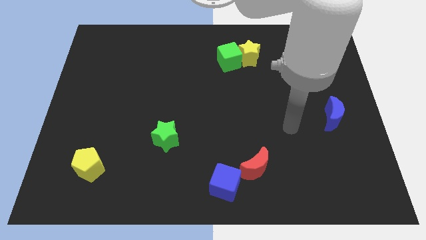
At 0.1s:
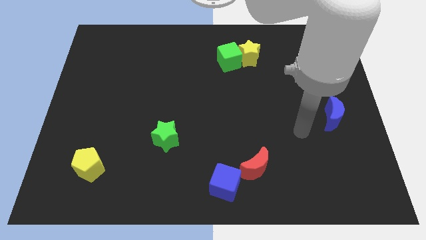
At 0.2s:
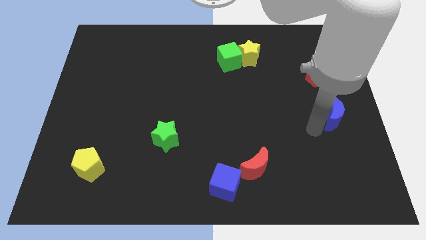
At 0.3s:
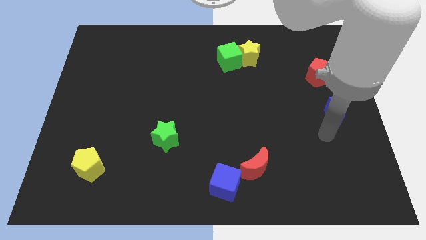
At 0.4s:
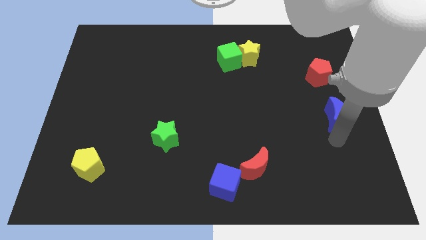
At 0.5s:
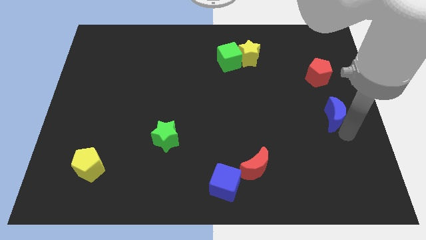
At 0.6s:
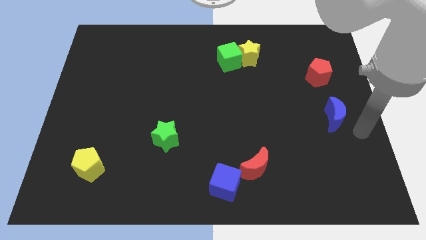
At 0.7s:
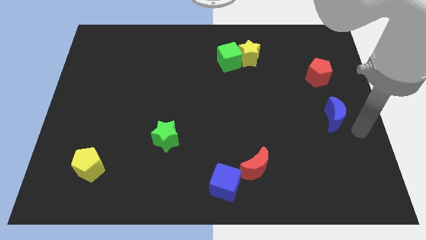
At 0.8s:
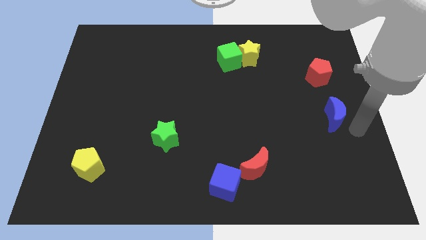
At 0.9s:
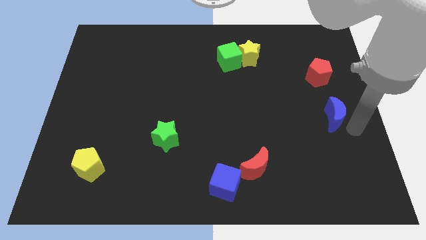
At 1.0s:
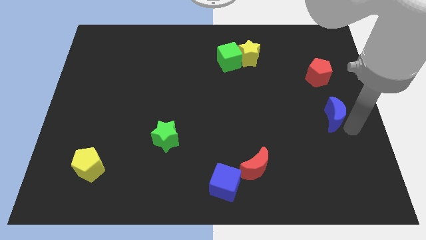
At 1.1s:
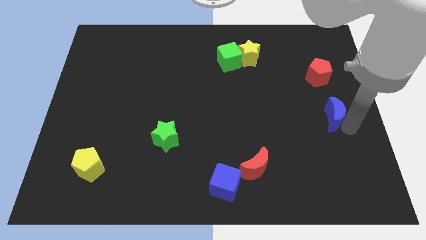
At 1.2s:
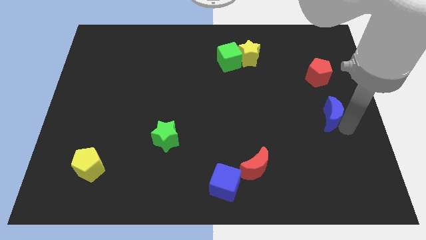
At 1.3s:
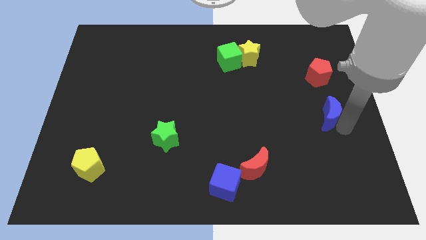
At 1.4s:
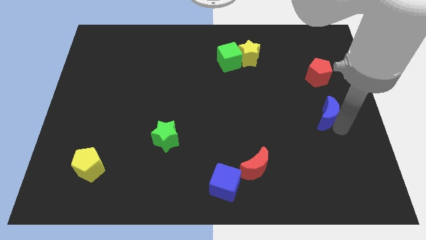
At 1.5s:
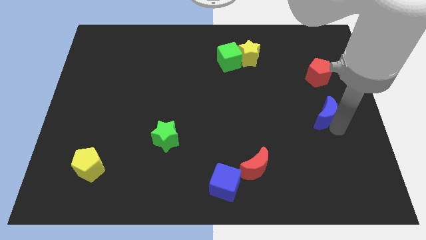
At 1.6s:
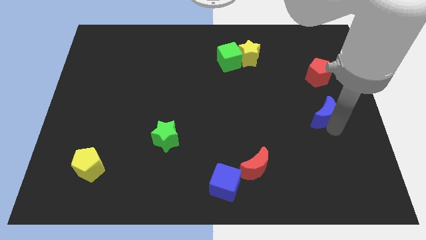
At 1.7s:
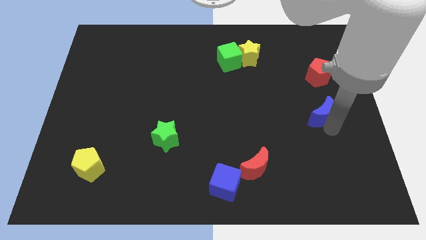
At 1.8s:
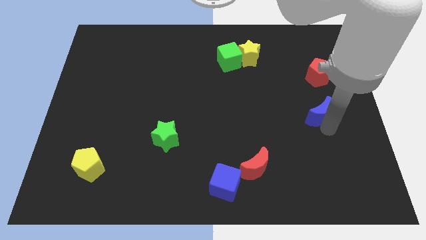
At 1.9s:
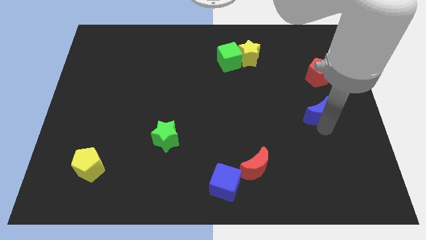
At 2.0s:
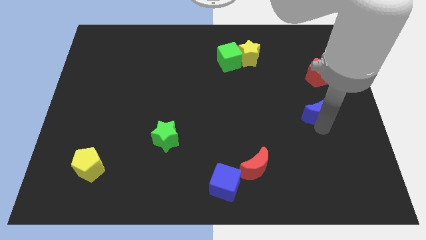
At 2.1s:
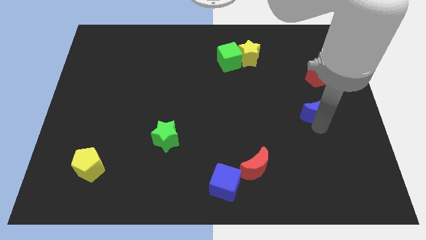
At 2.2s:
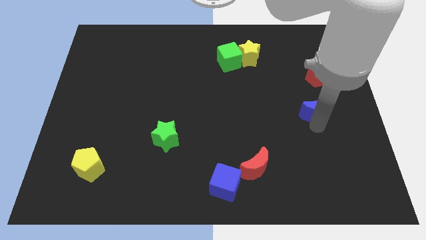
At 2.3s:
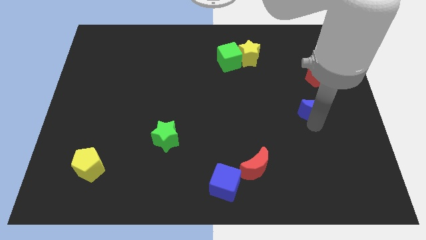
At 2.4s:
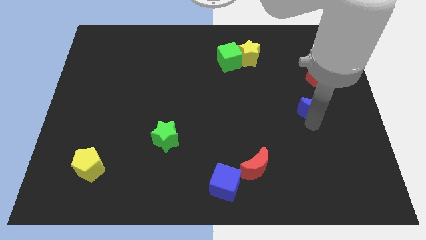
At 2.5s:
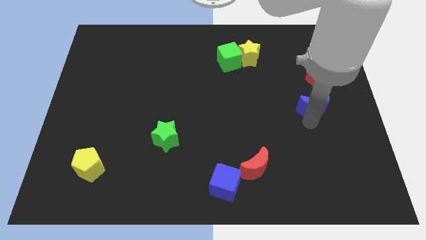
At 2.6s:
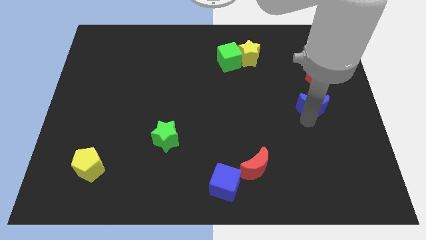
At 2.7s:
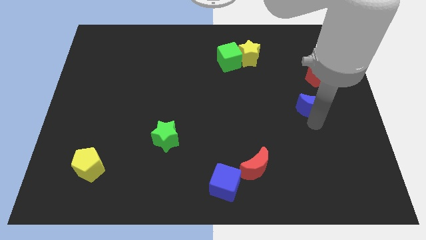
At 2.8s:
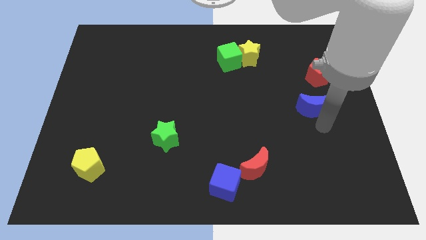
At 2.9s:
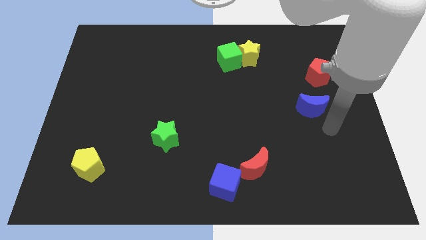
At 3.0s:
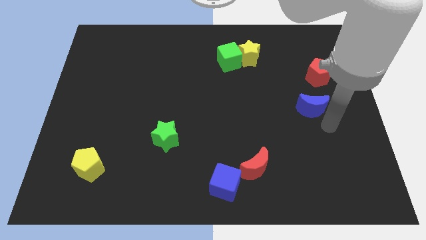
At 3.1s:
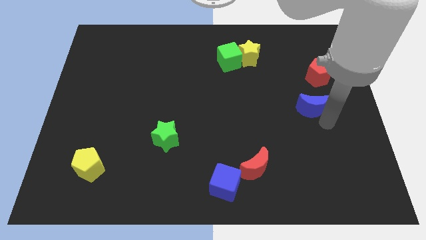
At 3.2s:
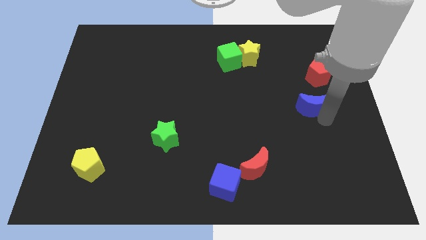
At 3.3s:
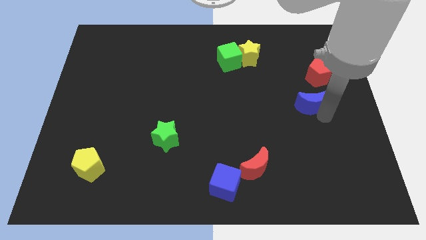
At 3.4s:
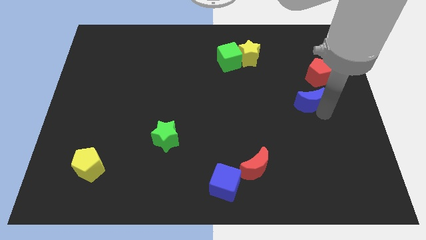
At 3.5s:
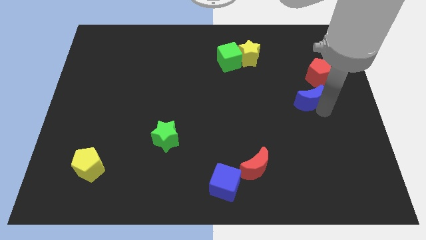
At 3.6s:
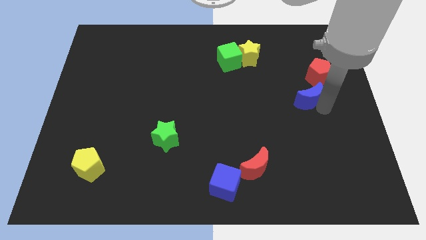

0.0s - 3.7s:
move the blue moon up and left diagonally a bit

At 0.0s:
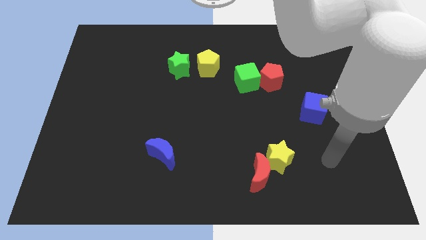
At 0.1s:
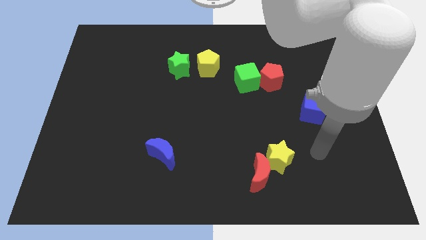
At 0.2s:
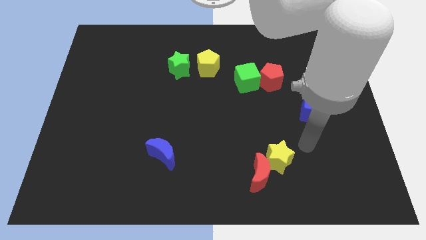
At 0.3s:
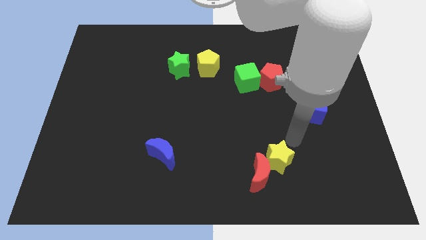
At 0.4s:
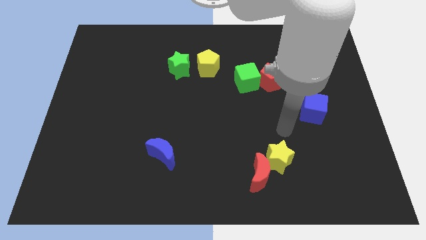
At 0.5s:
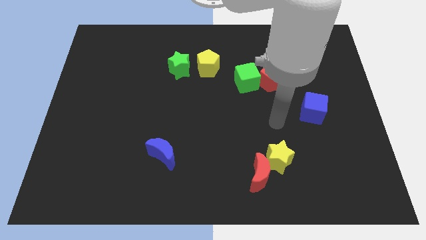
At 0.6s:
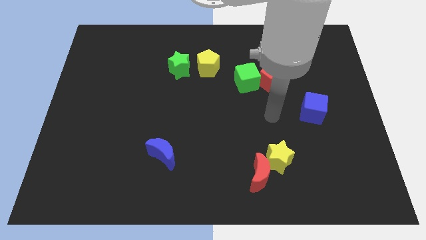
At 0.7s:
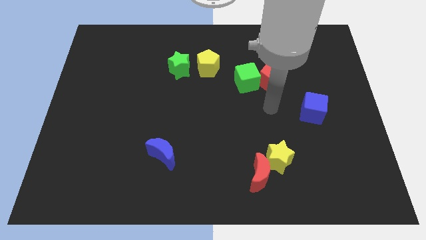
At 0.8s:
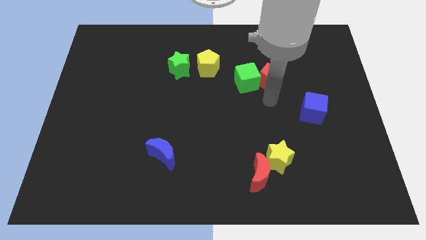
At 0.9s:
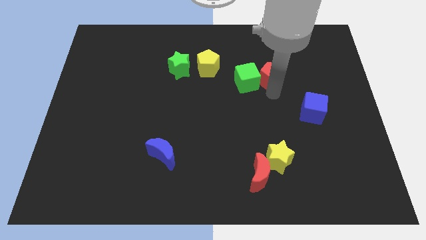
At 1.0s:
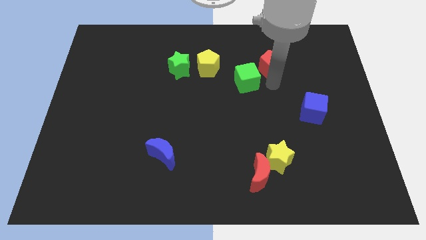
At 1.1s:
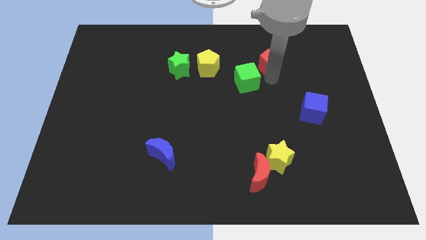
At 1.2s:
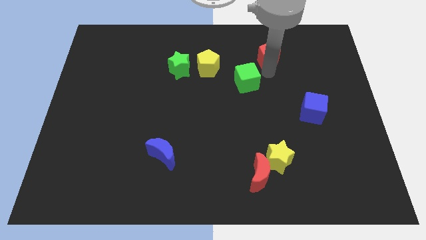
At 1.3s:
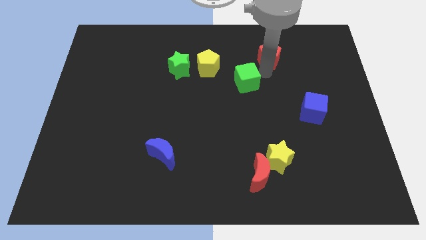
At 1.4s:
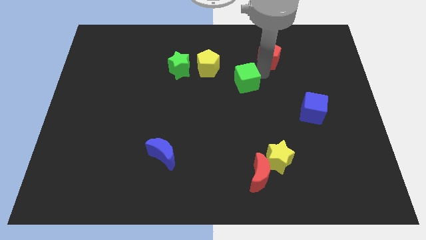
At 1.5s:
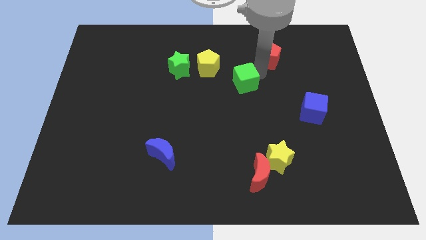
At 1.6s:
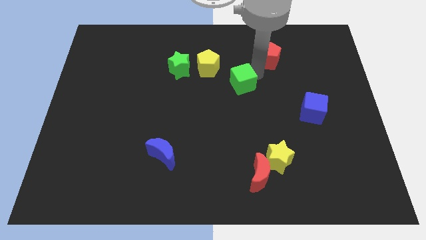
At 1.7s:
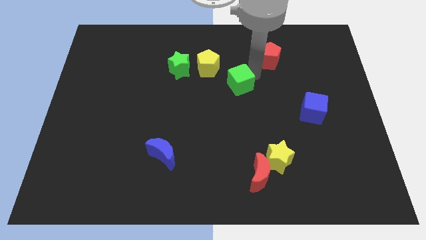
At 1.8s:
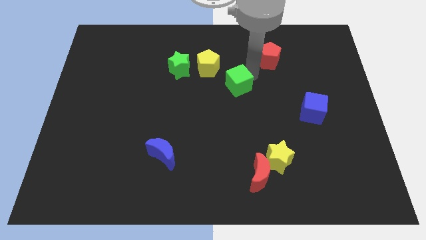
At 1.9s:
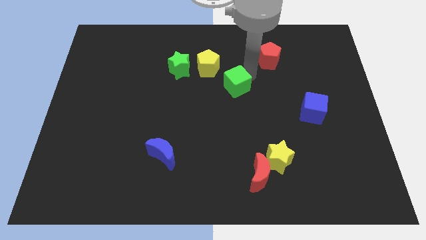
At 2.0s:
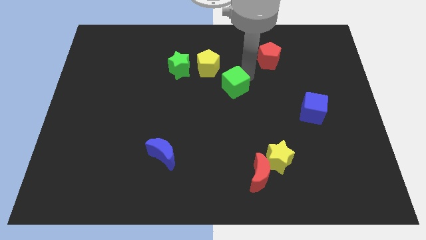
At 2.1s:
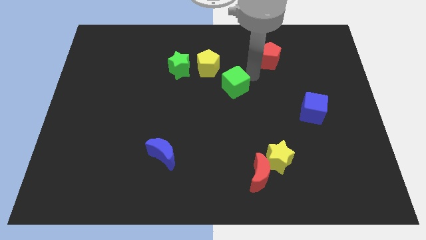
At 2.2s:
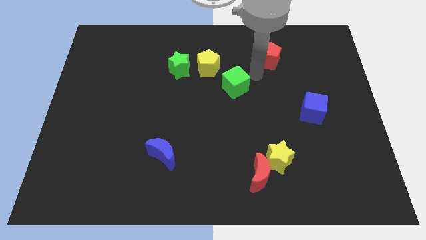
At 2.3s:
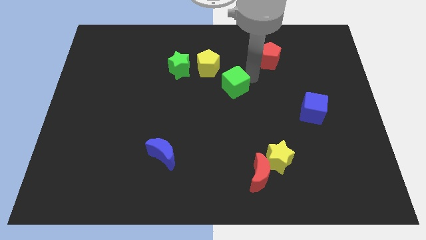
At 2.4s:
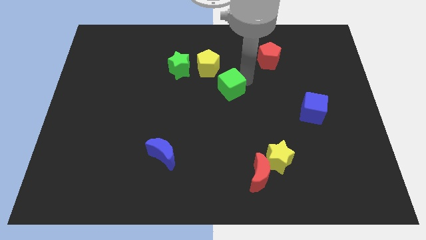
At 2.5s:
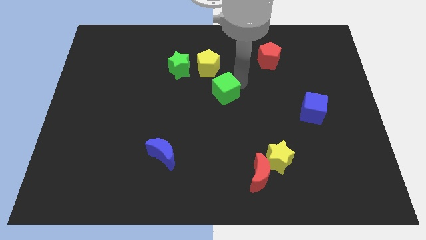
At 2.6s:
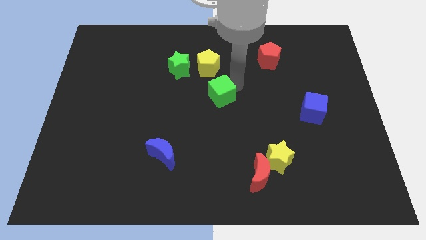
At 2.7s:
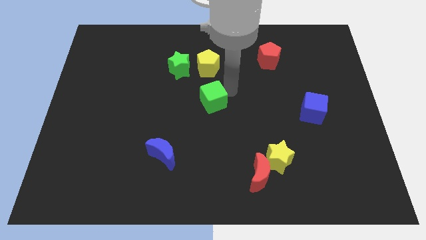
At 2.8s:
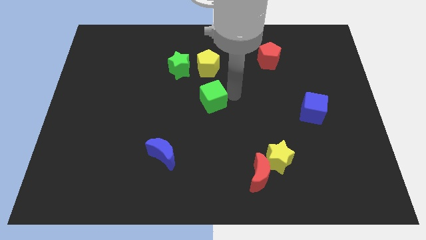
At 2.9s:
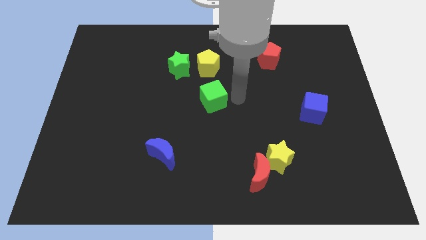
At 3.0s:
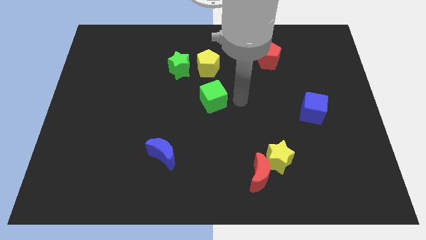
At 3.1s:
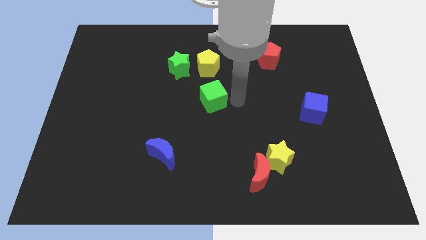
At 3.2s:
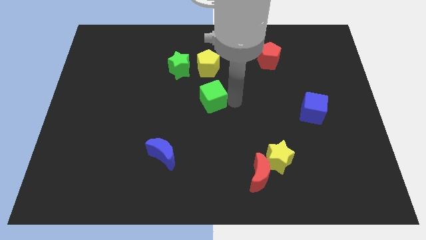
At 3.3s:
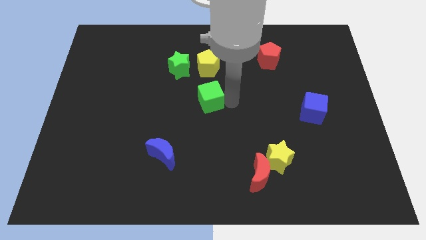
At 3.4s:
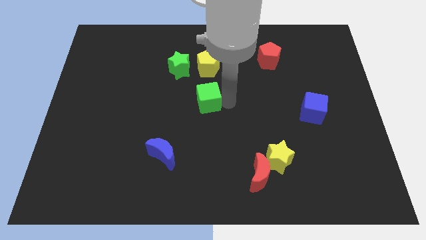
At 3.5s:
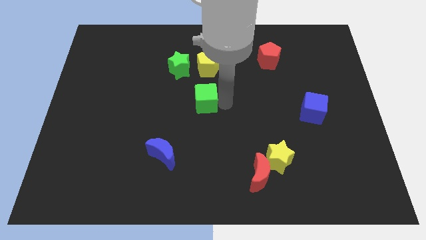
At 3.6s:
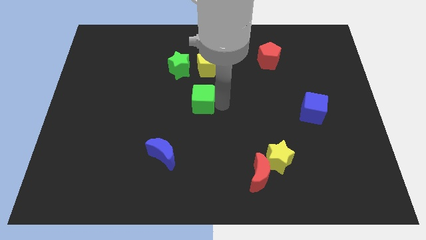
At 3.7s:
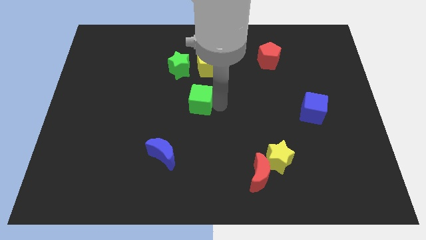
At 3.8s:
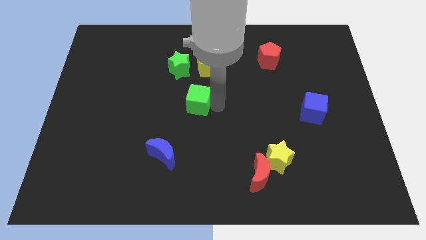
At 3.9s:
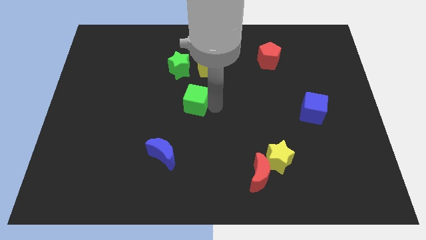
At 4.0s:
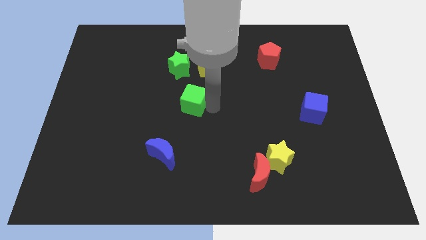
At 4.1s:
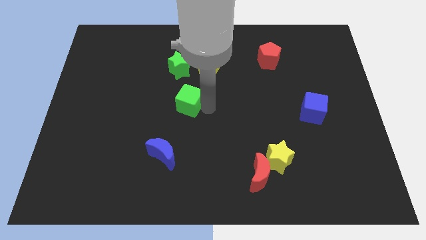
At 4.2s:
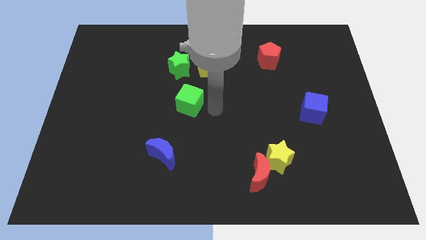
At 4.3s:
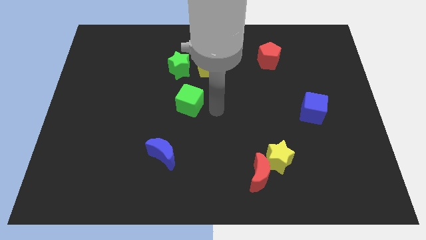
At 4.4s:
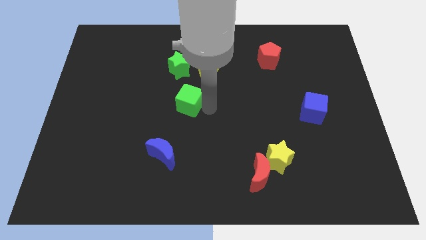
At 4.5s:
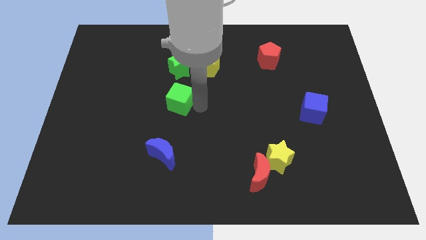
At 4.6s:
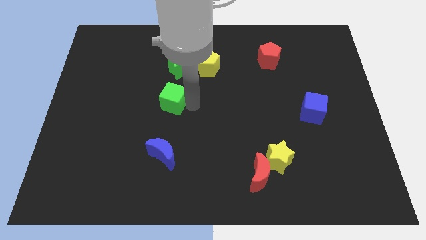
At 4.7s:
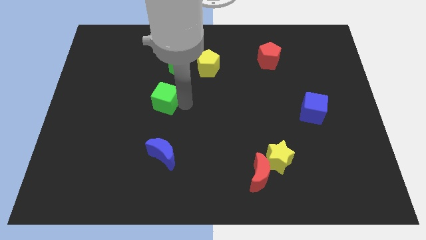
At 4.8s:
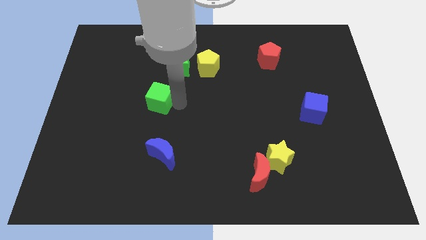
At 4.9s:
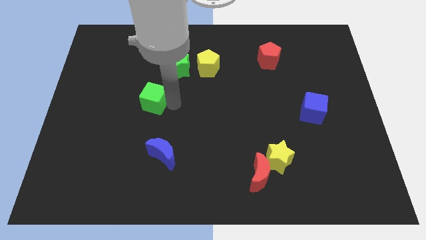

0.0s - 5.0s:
push the green cube left
